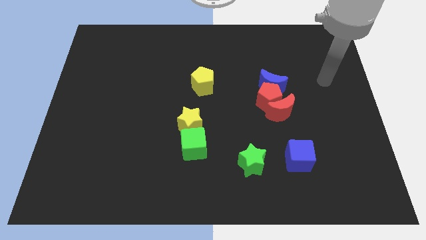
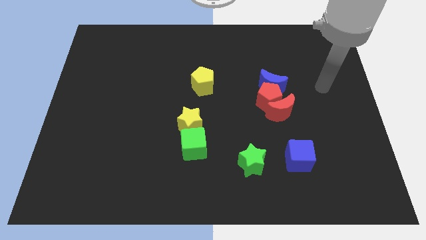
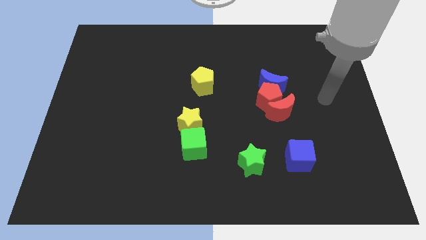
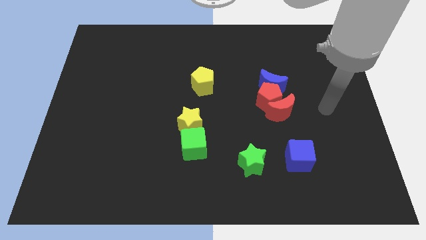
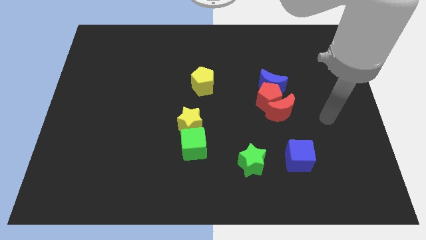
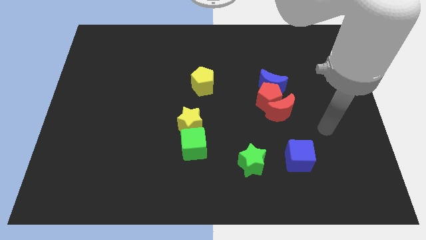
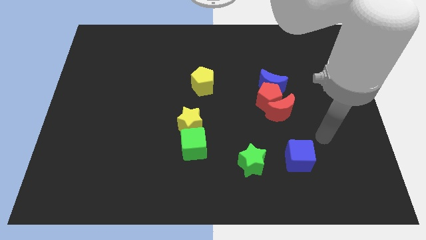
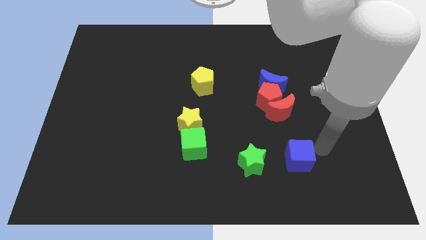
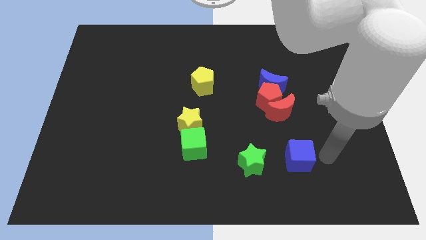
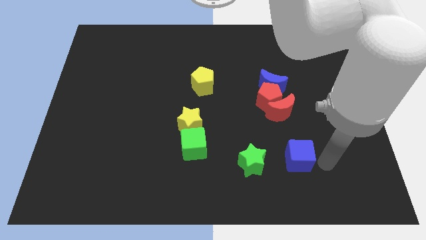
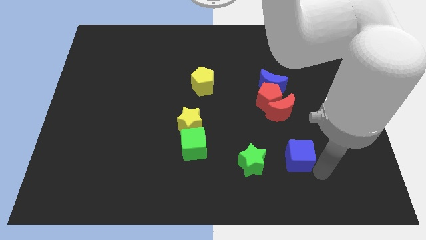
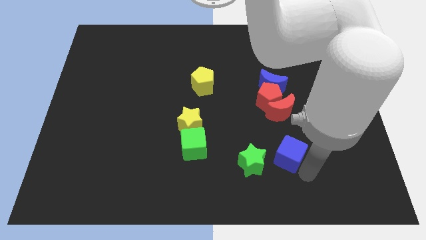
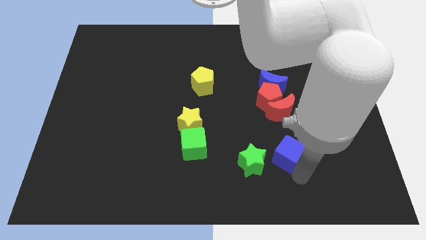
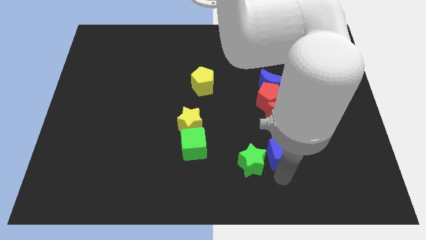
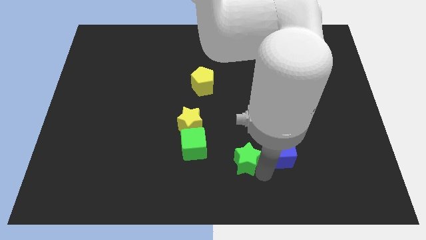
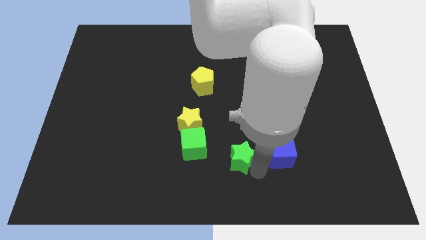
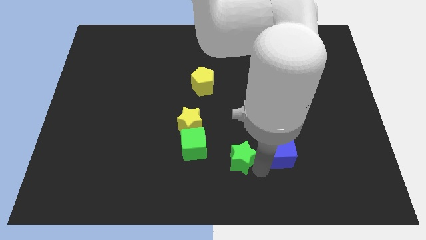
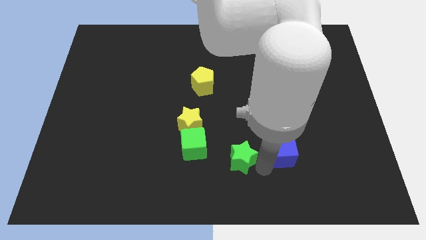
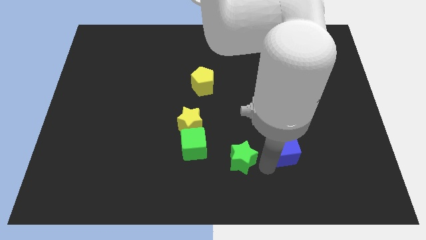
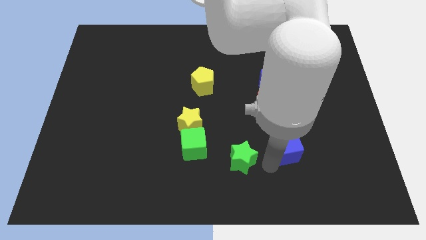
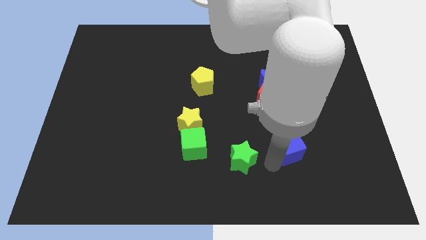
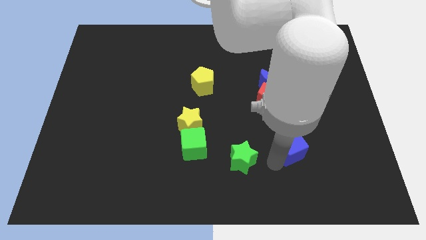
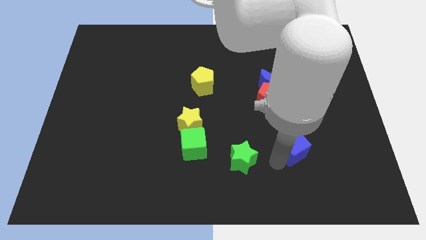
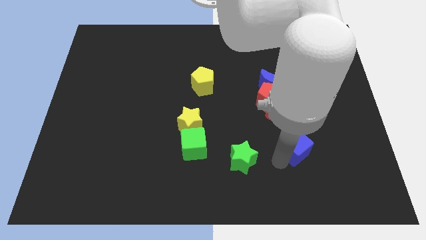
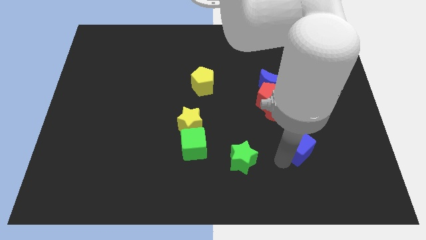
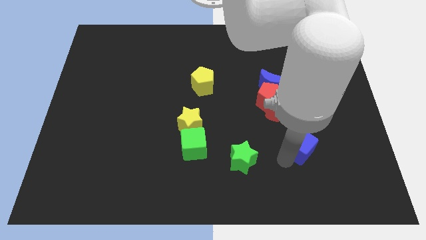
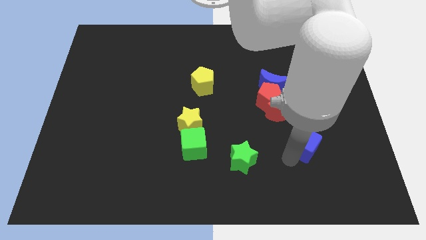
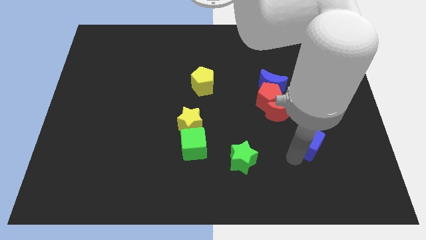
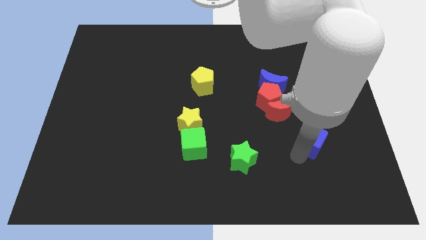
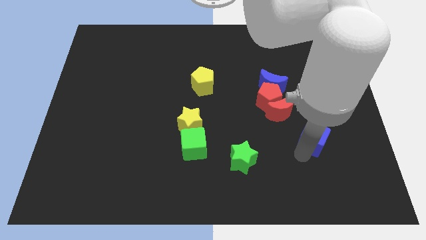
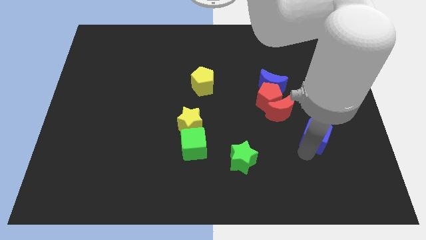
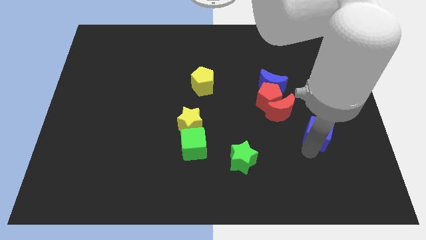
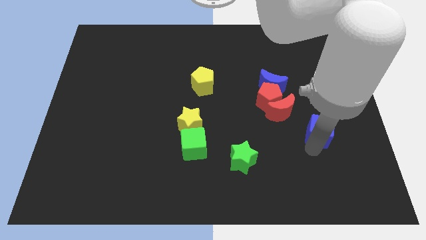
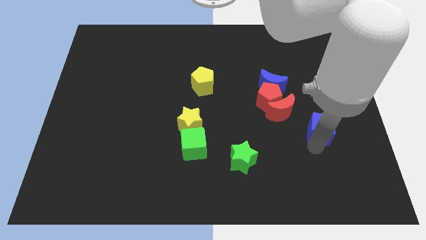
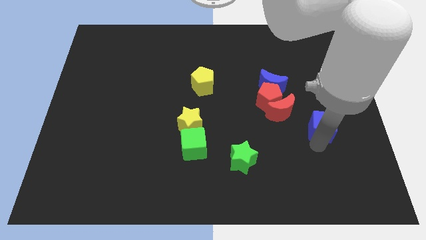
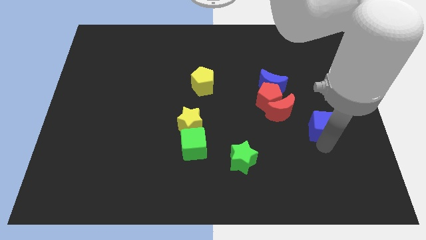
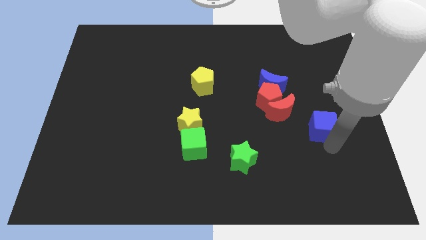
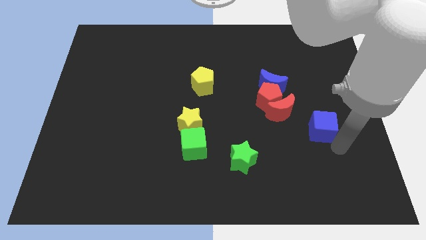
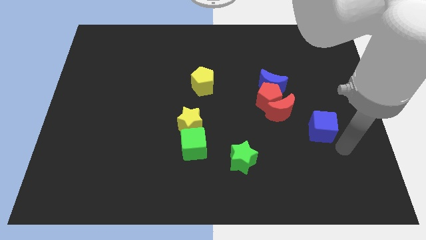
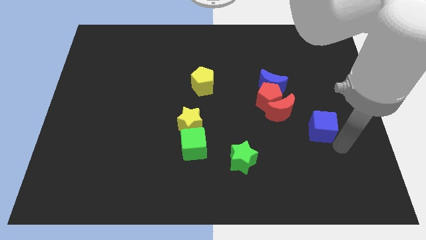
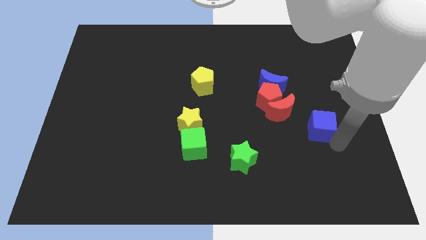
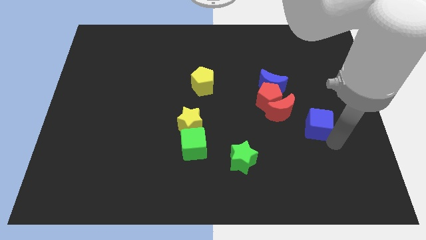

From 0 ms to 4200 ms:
slide the blue cube a bit upwards

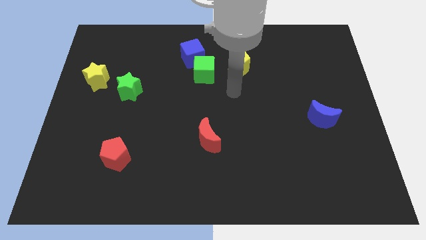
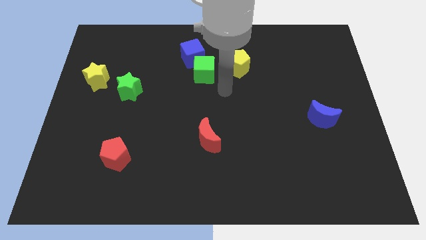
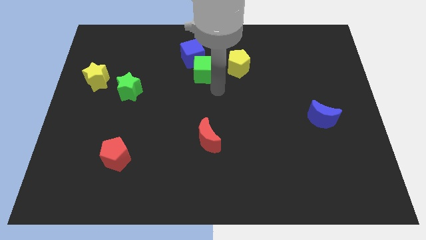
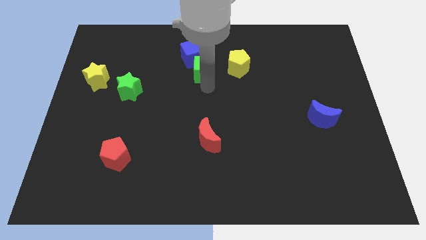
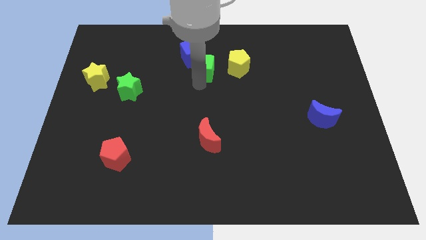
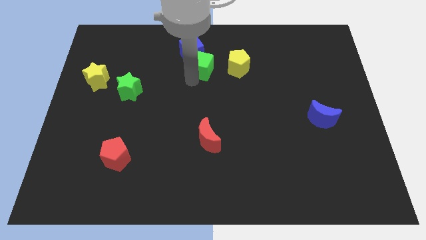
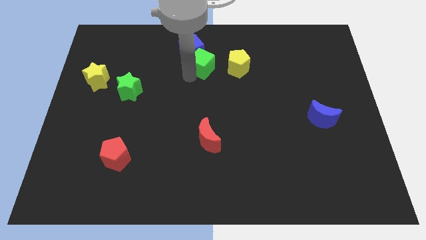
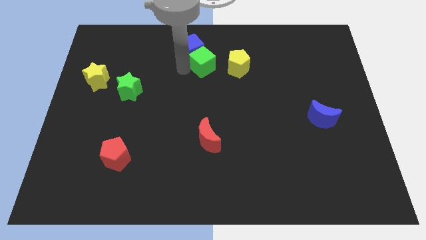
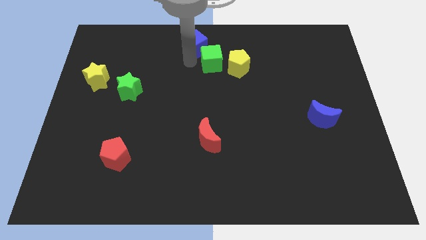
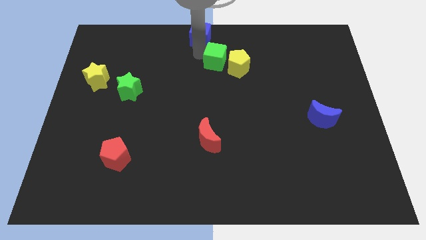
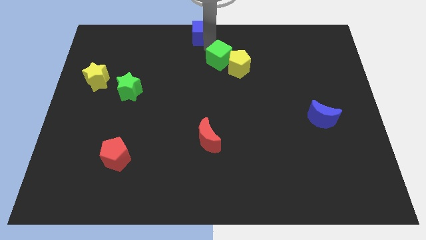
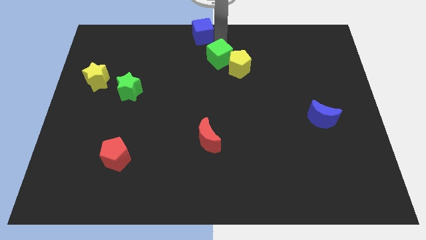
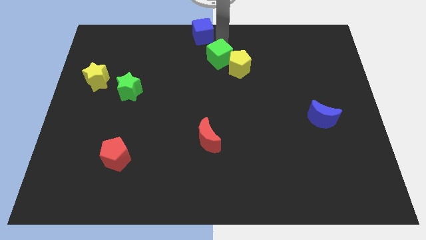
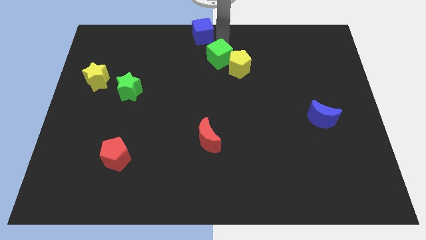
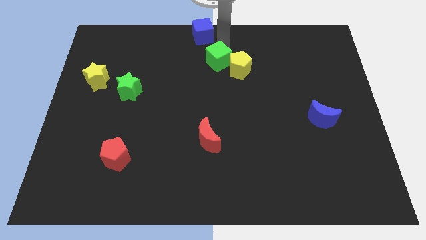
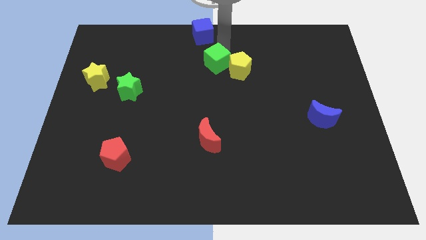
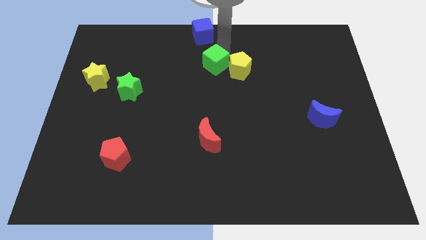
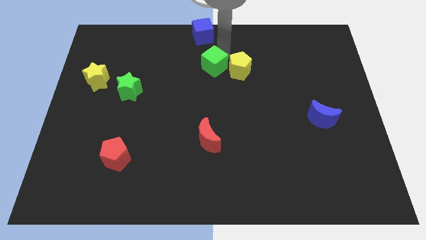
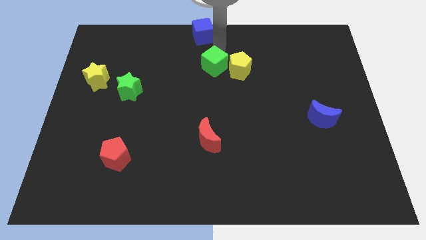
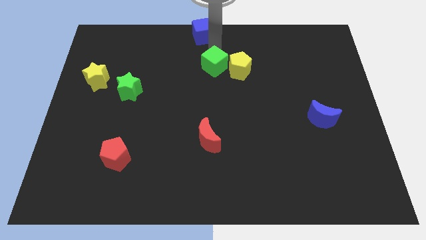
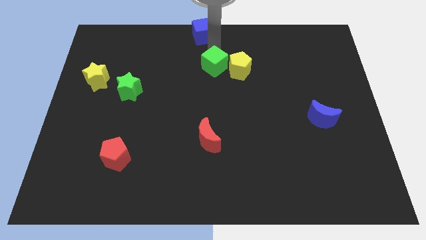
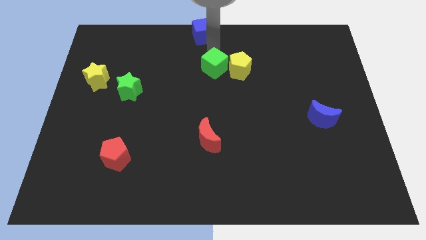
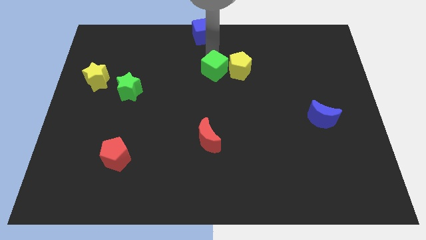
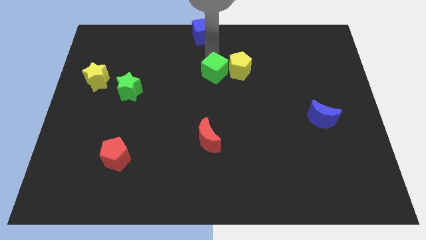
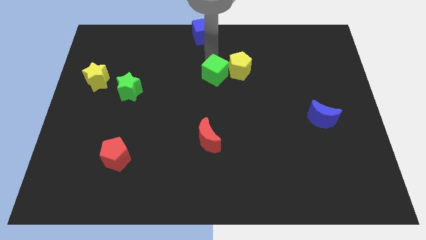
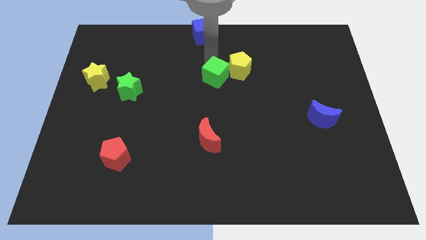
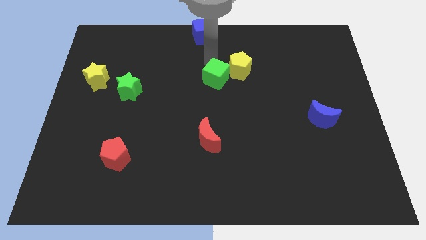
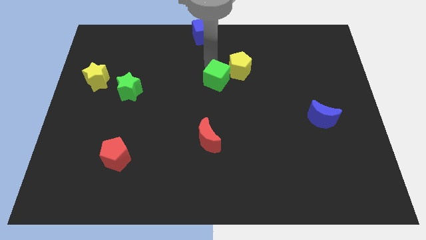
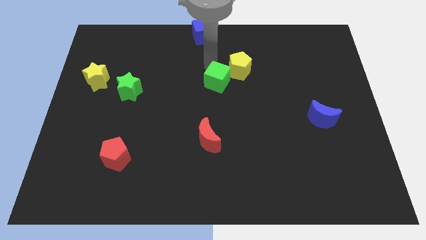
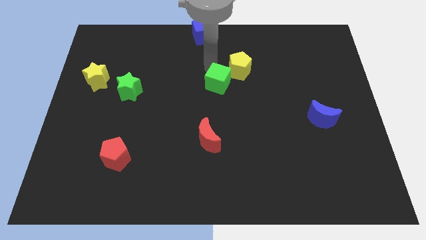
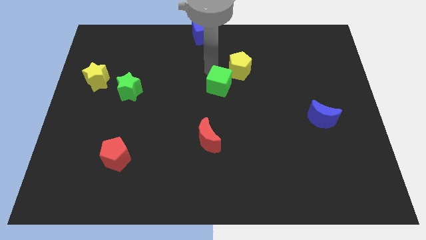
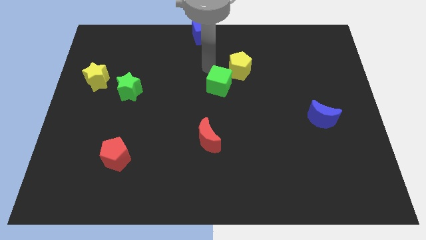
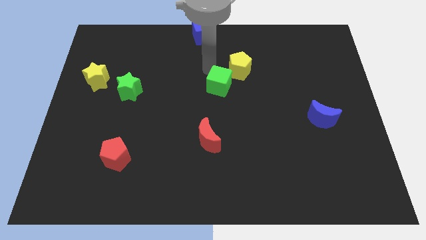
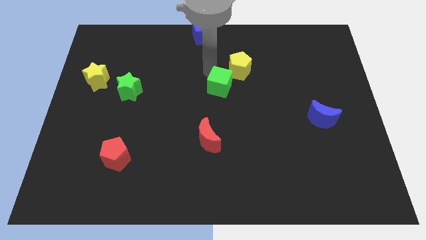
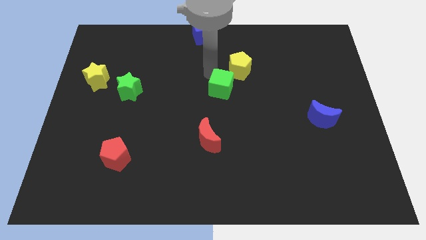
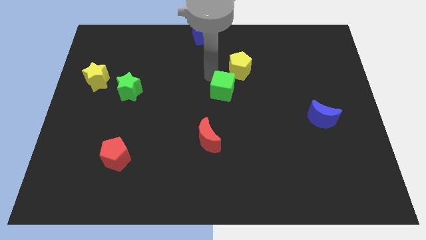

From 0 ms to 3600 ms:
move the green cube a little downwards and then to the right

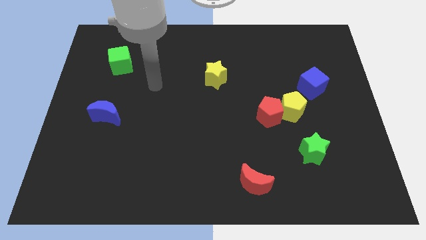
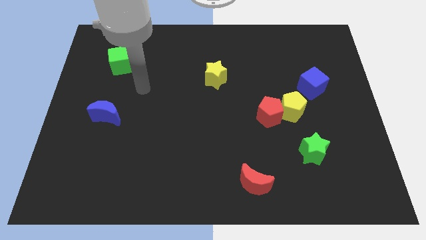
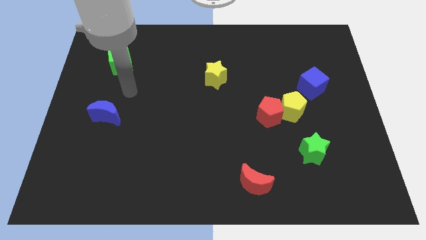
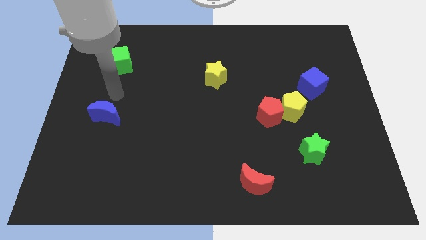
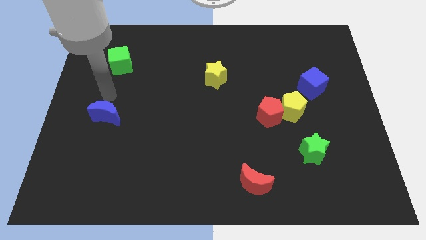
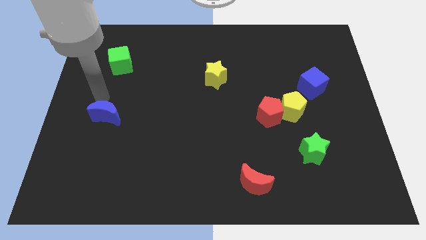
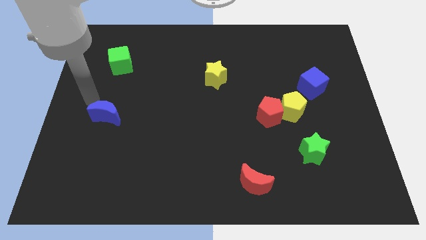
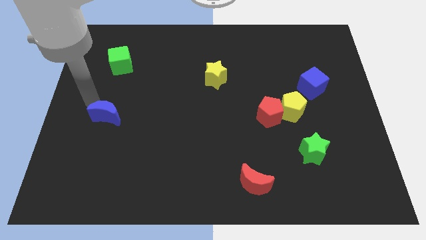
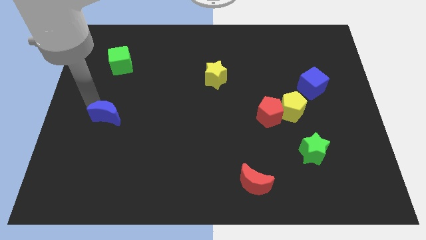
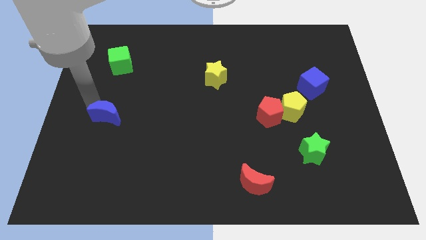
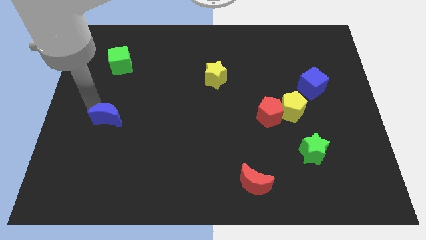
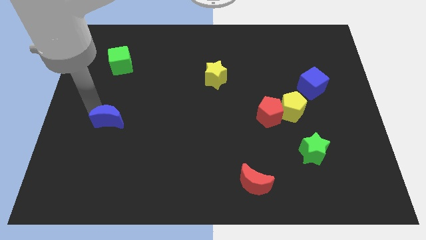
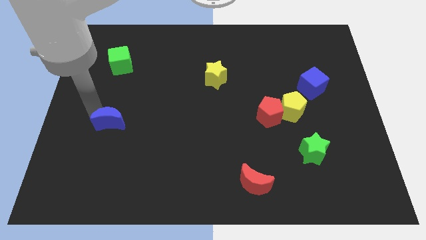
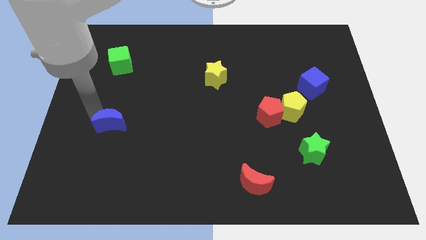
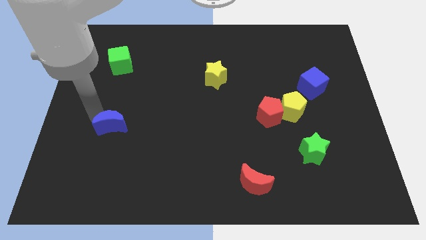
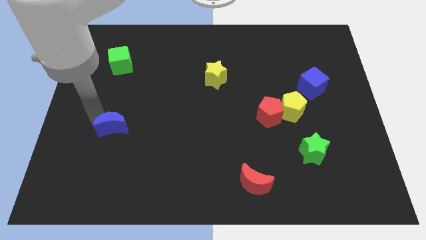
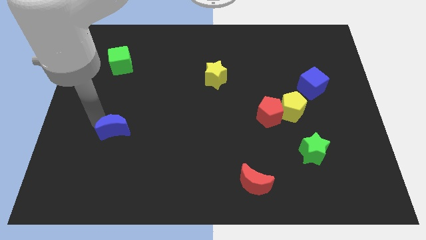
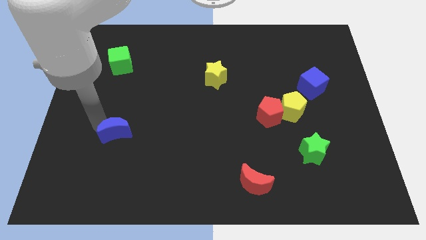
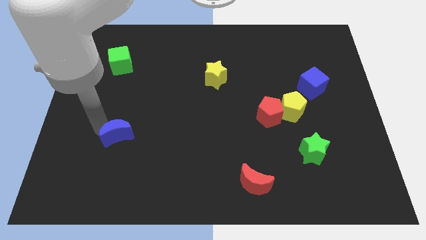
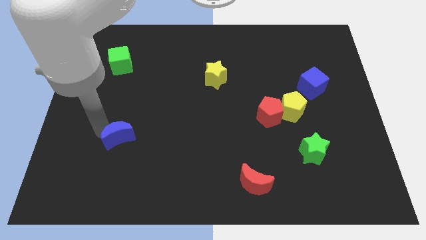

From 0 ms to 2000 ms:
move the blue moon a little bit downwards and right
